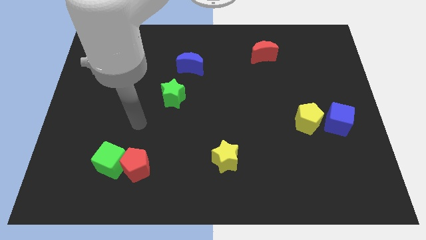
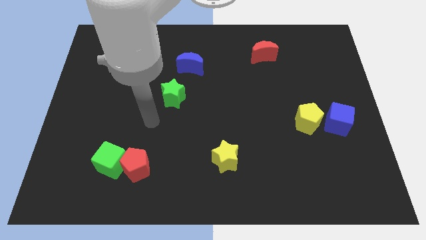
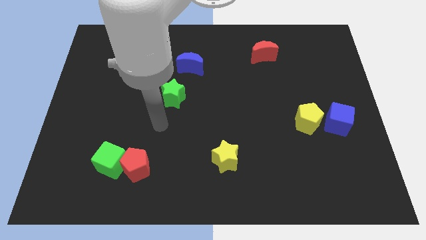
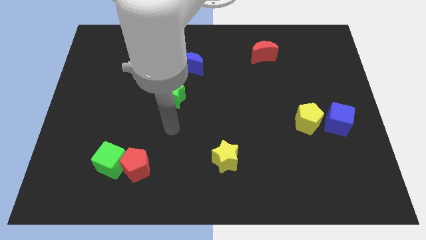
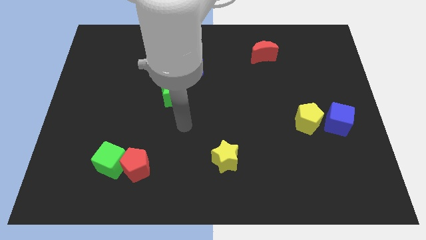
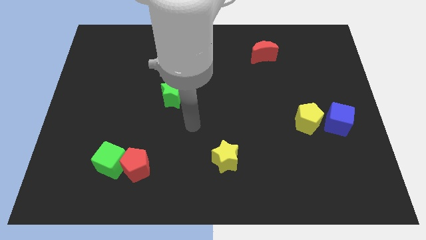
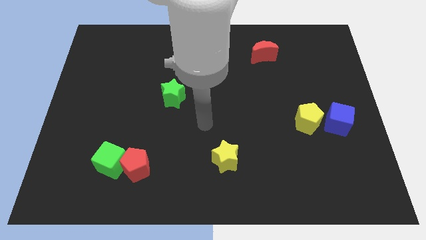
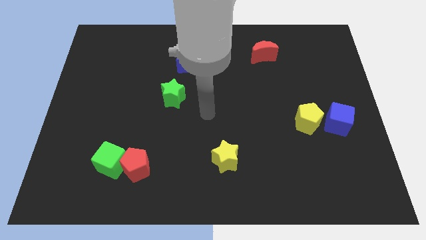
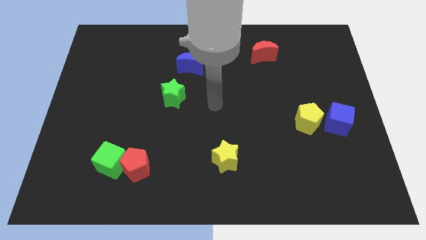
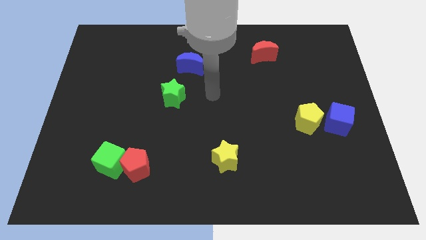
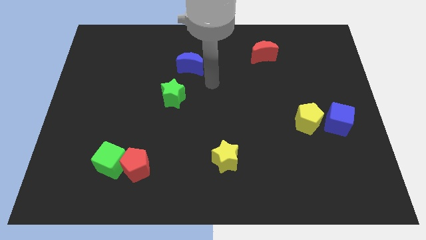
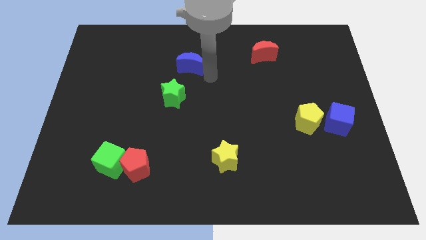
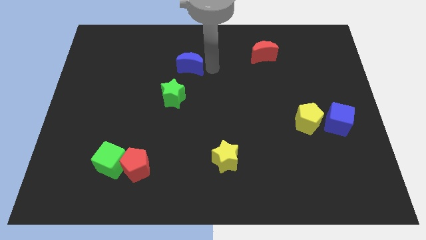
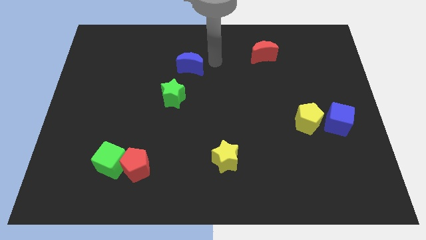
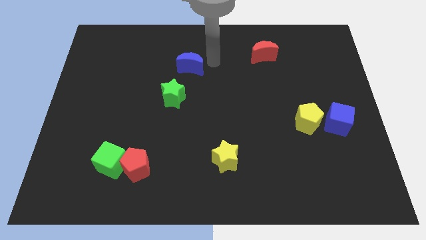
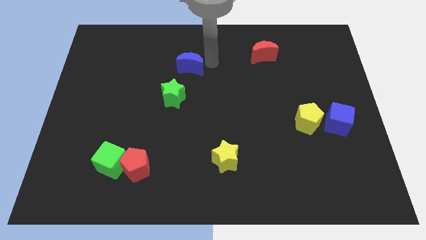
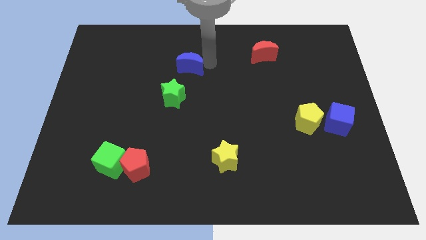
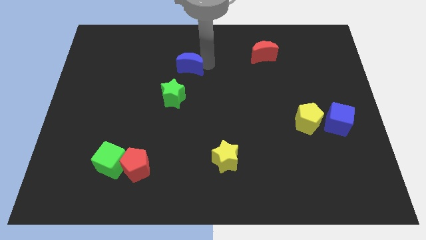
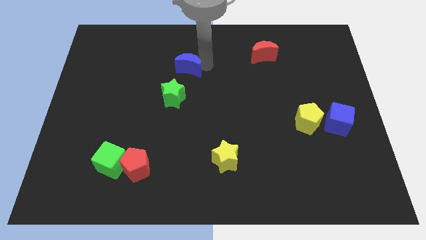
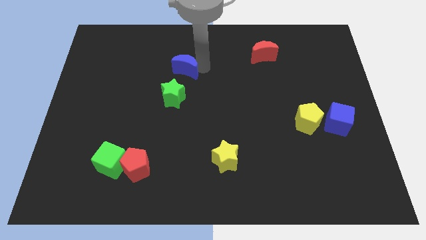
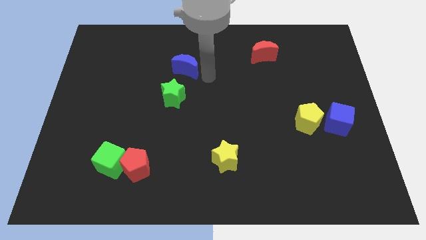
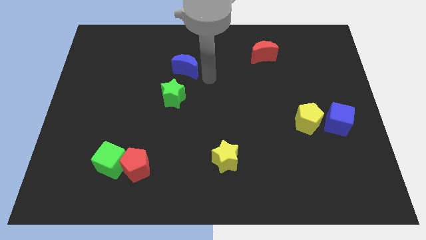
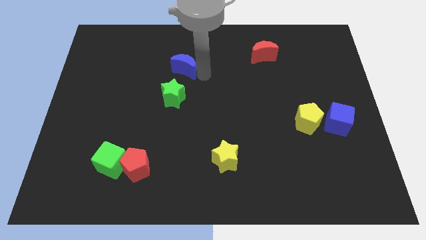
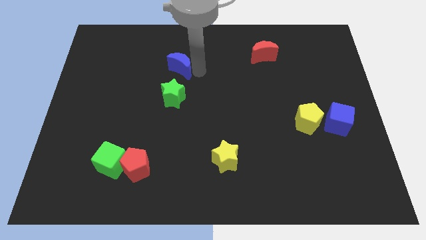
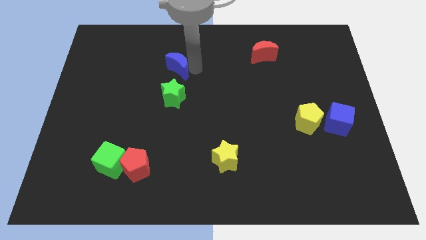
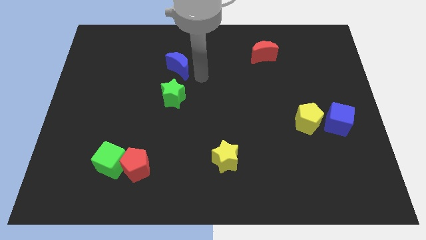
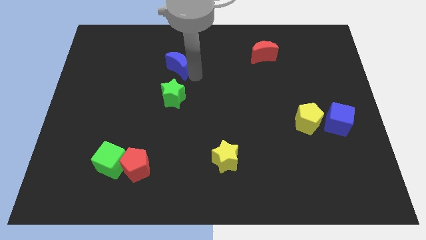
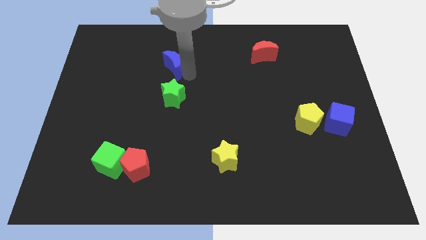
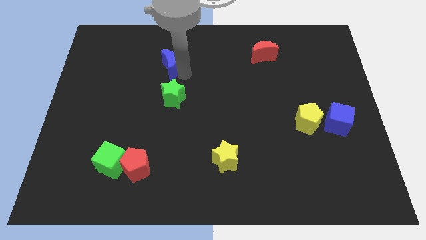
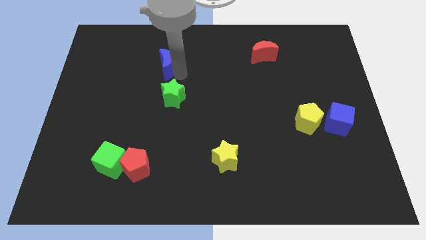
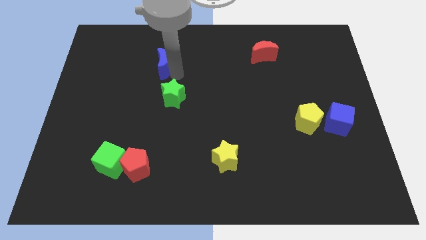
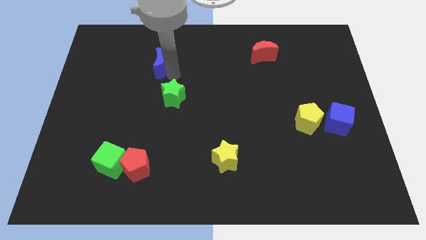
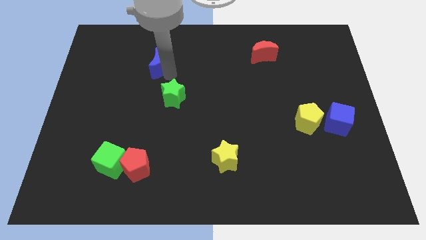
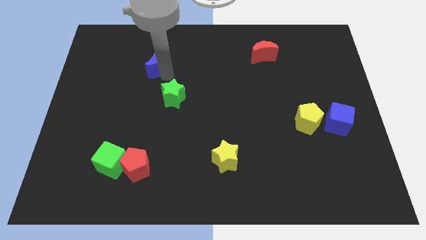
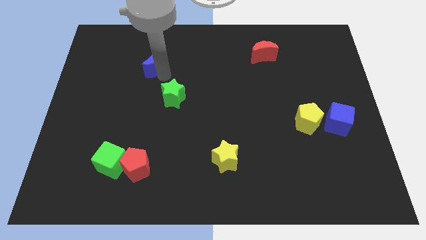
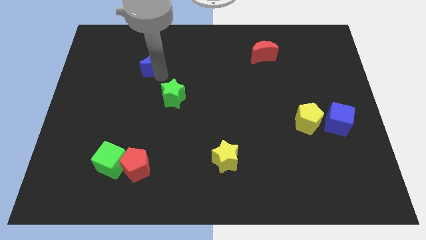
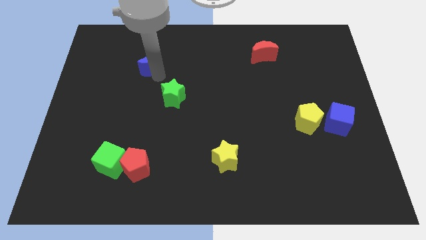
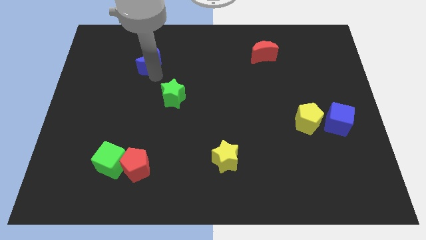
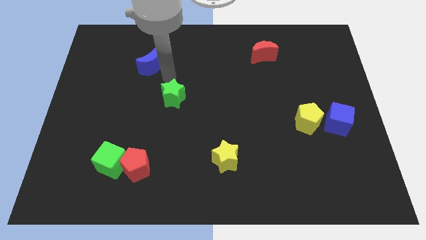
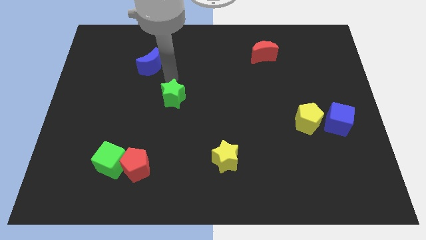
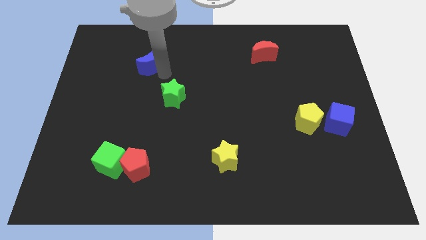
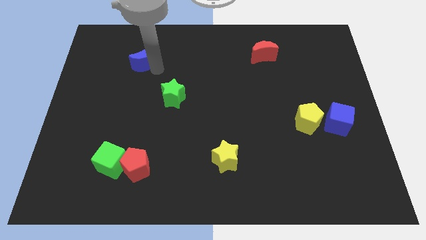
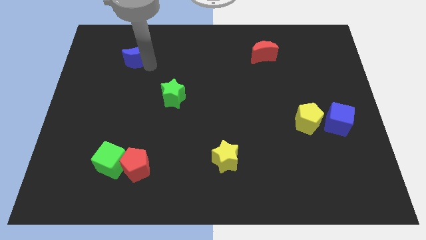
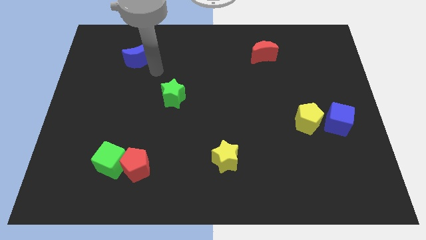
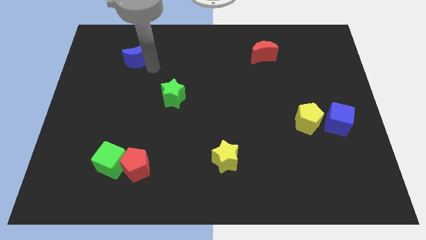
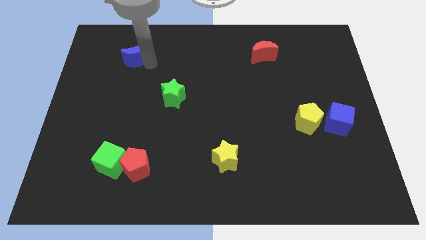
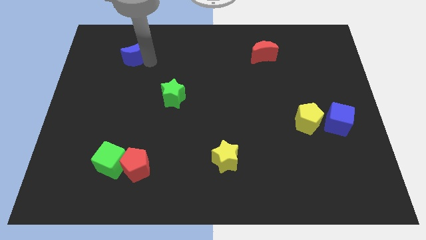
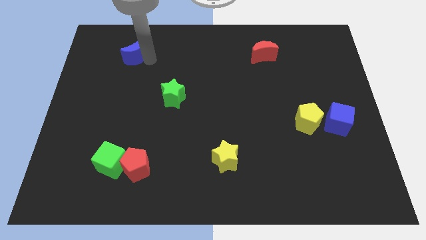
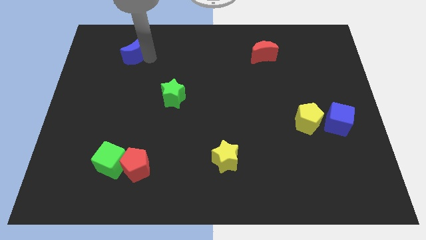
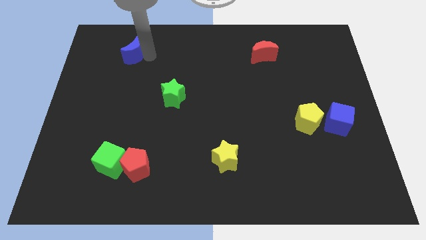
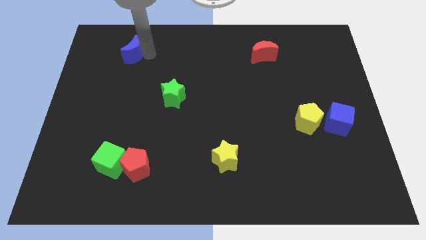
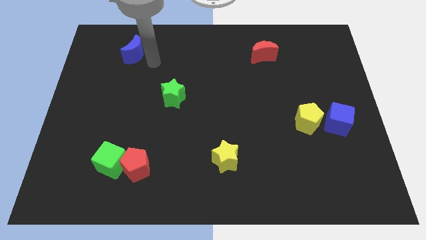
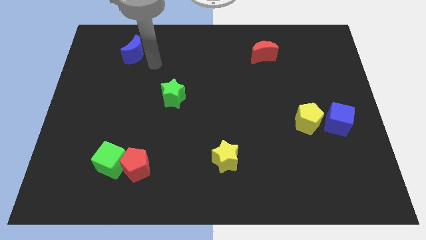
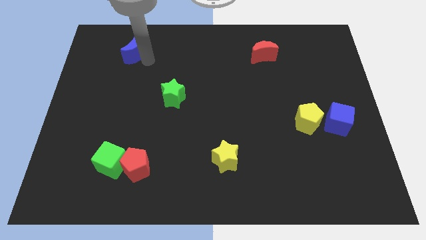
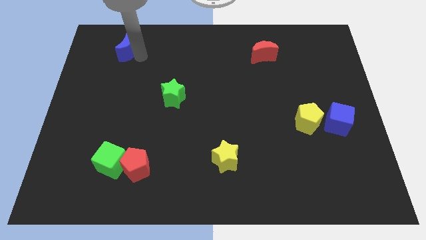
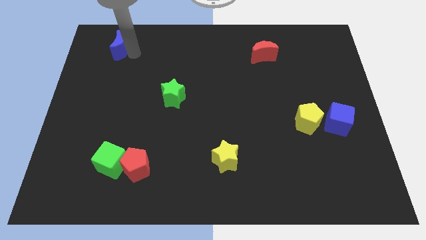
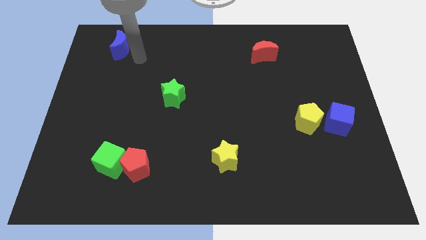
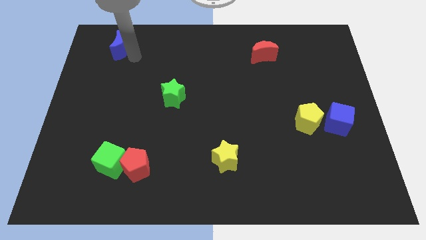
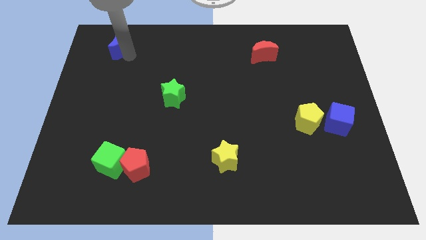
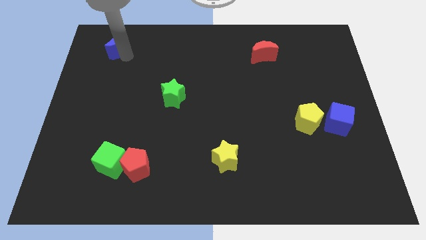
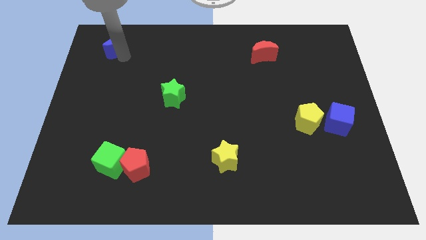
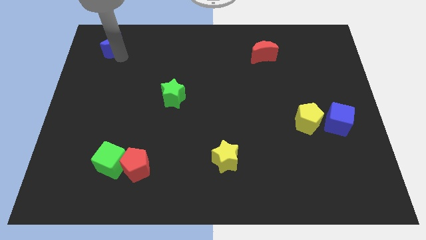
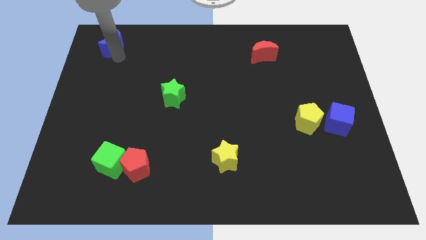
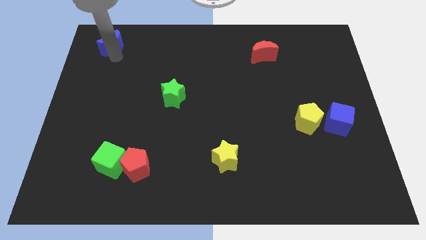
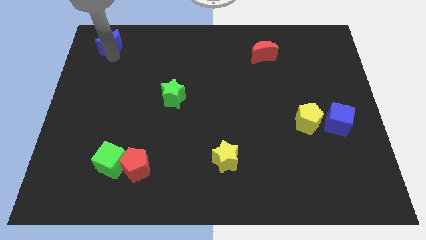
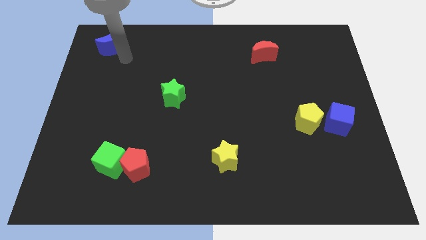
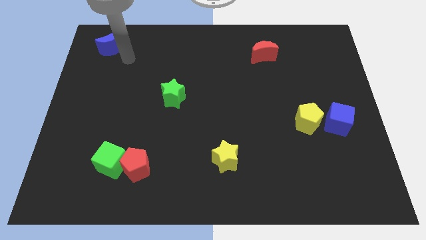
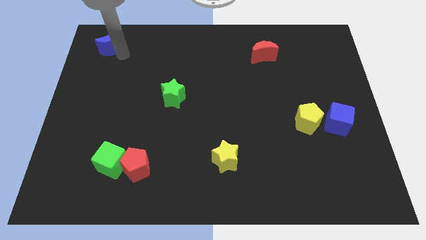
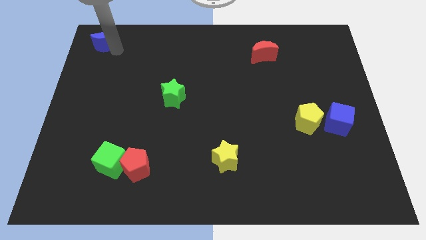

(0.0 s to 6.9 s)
move the blue moon to the top left corner
